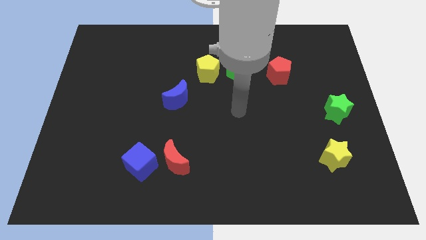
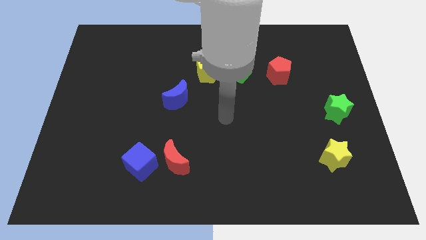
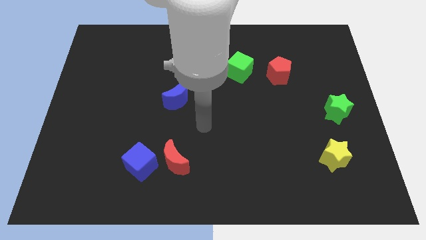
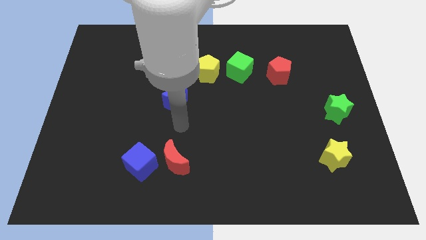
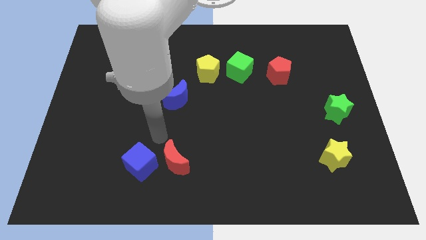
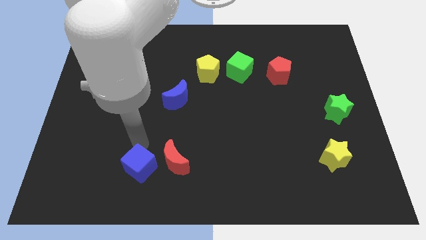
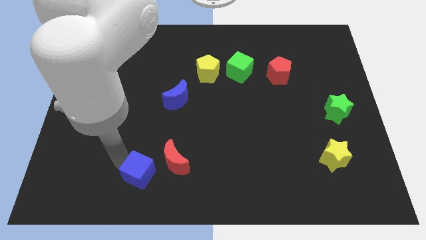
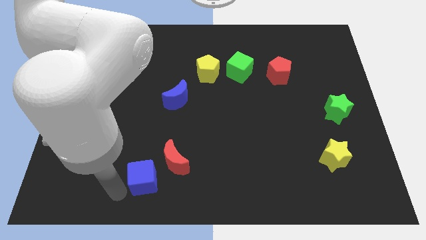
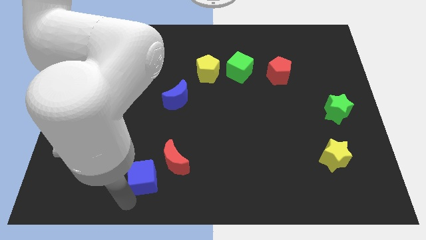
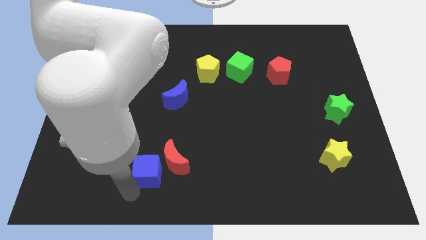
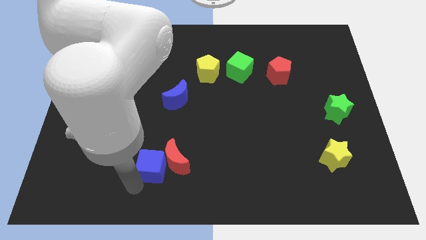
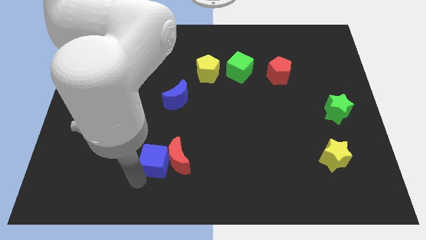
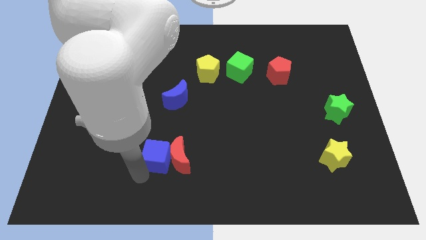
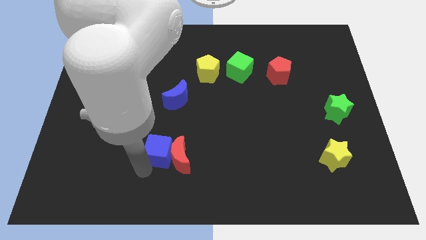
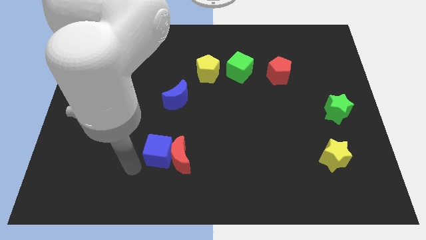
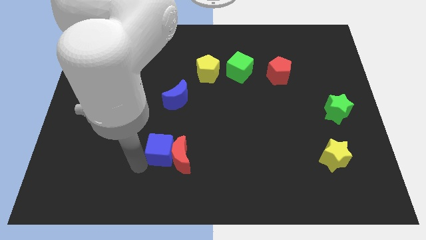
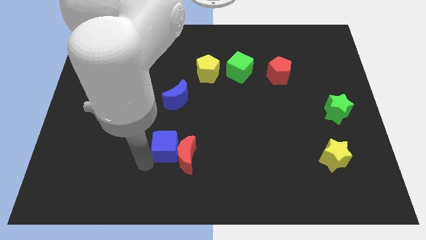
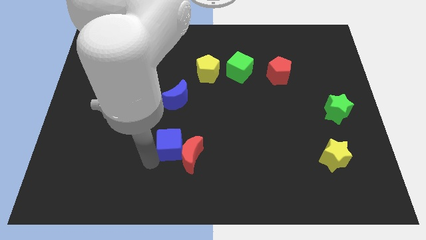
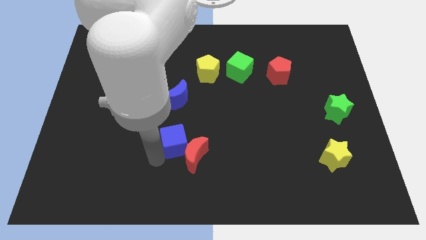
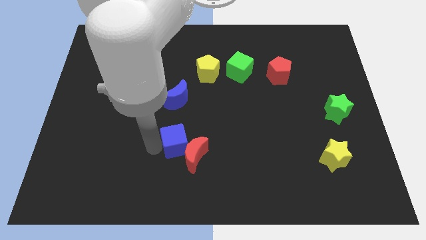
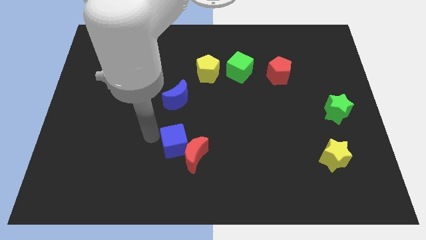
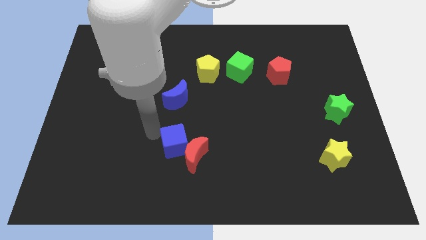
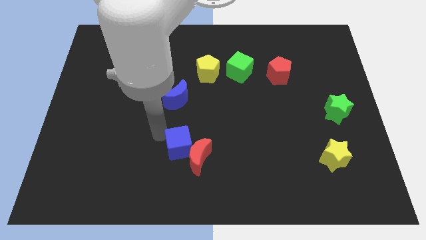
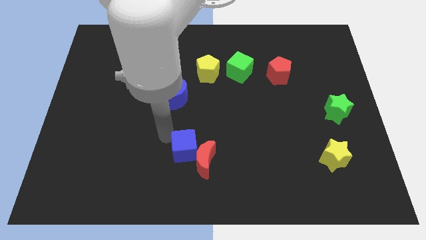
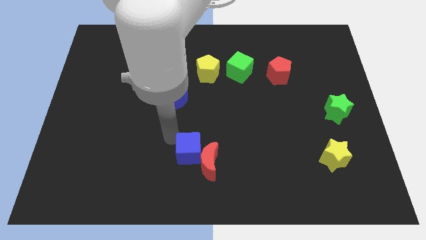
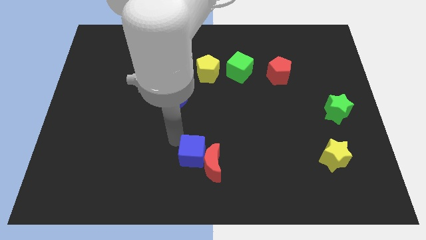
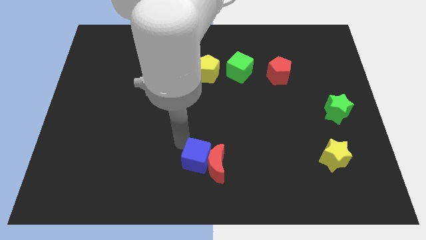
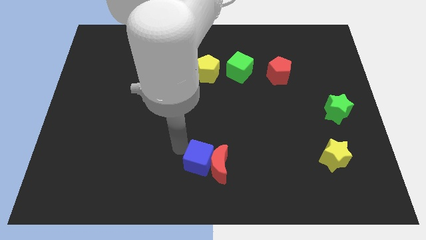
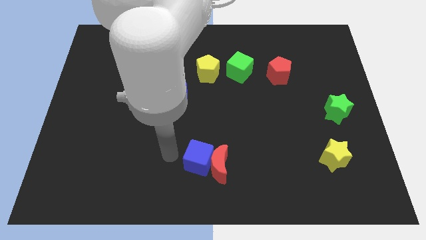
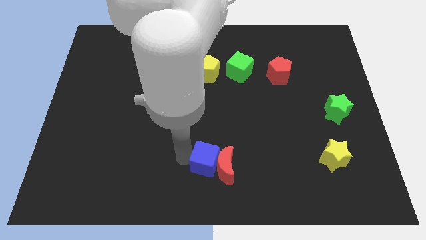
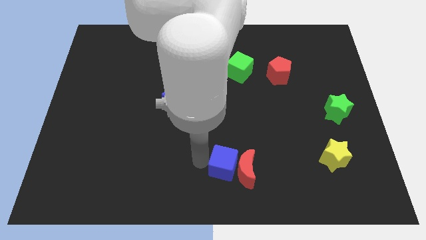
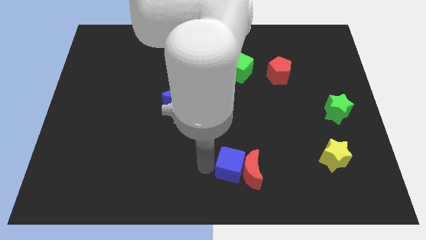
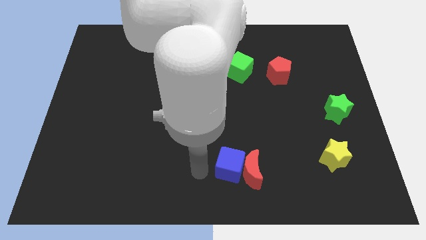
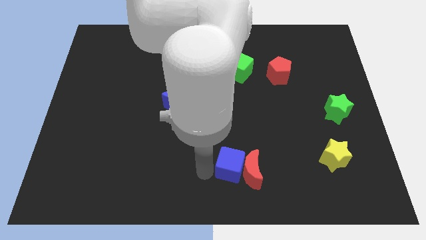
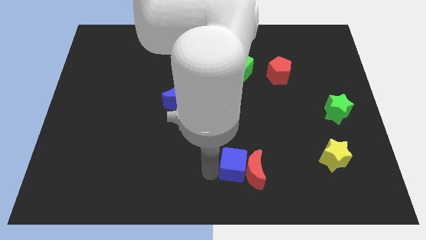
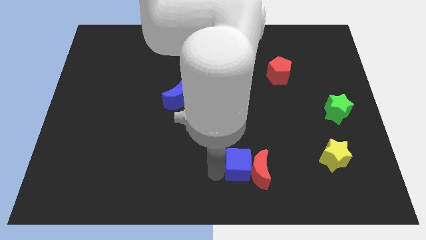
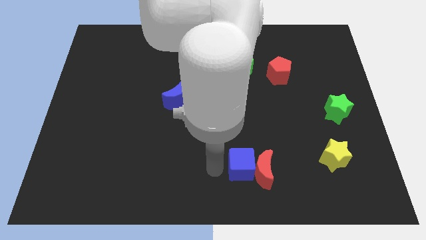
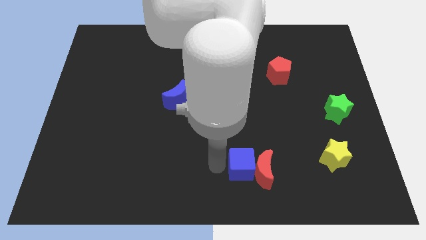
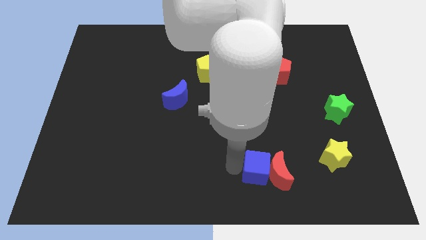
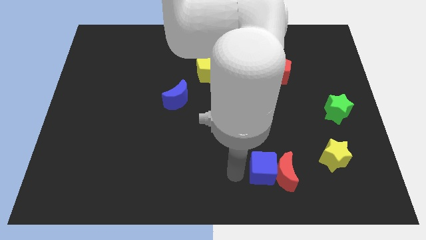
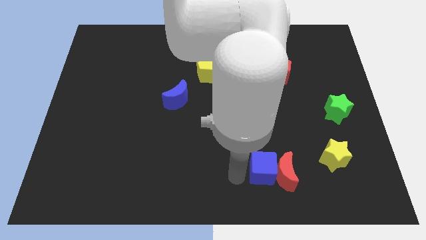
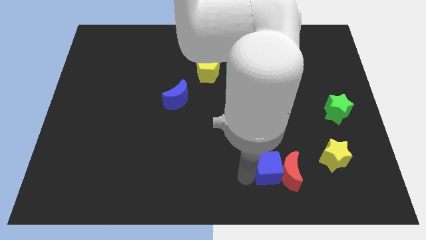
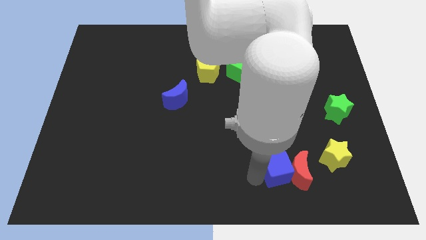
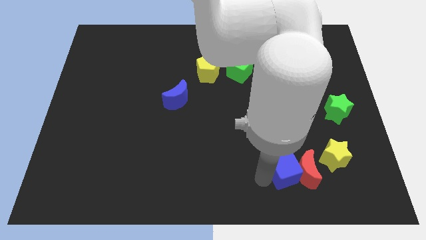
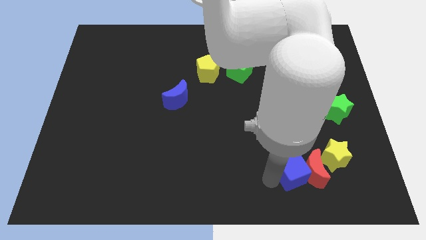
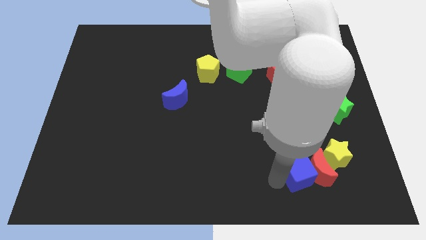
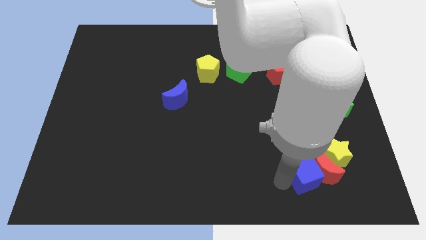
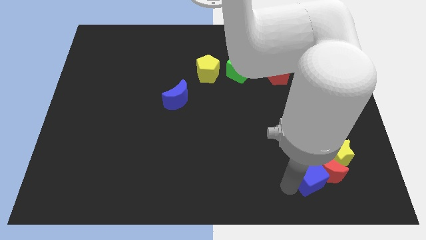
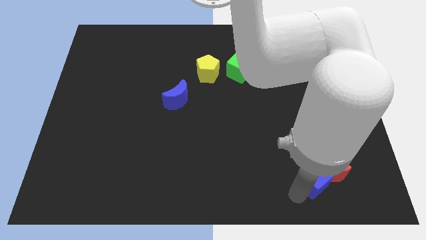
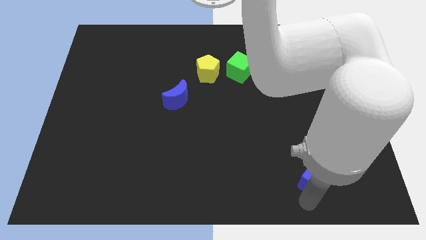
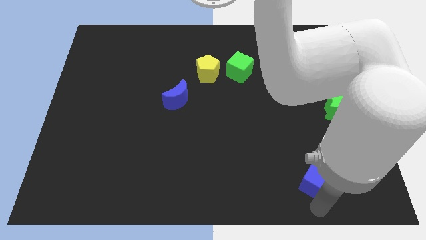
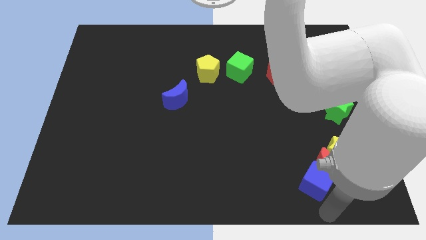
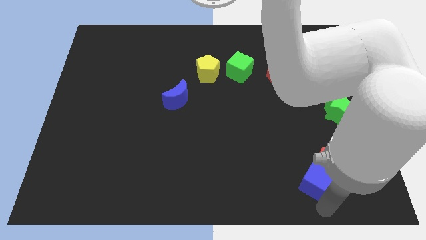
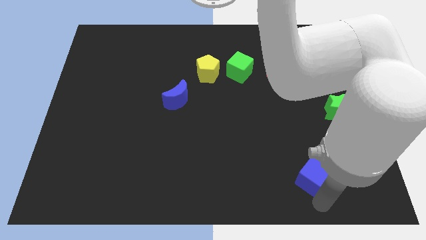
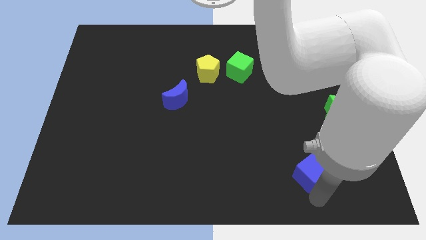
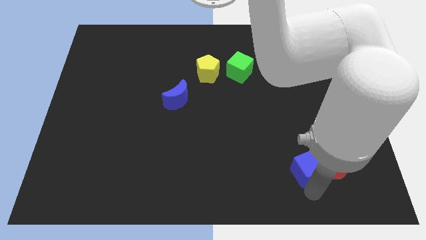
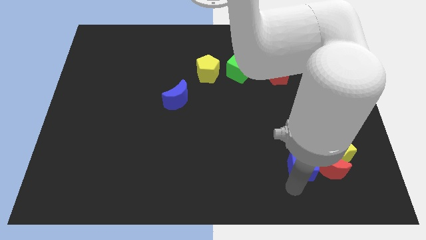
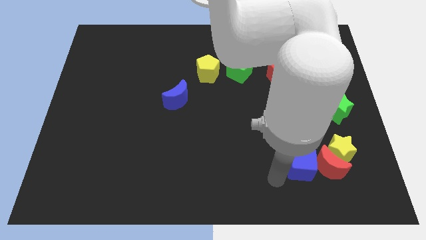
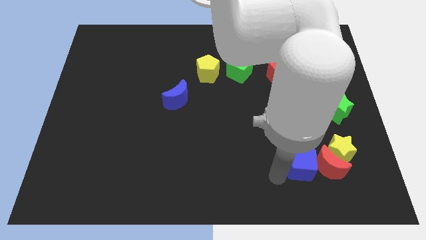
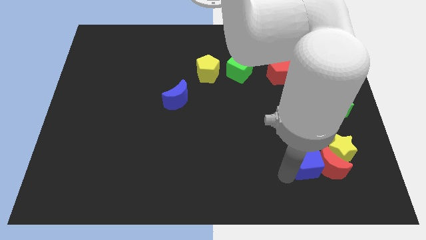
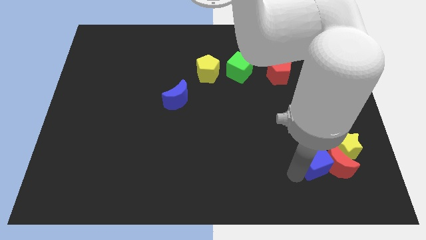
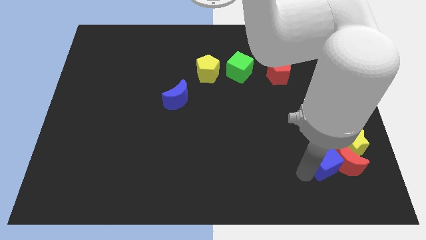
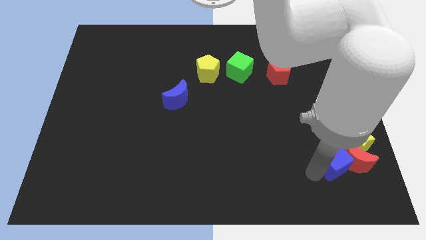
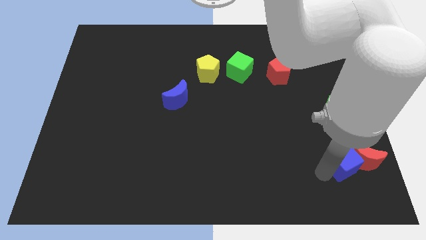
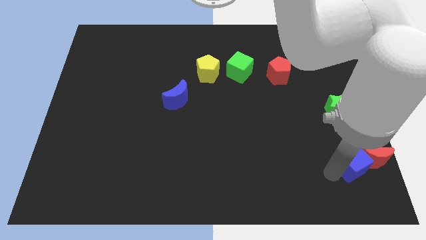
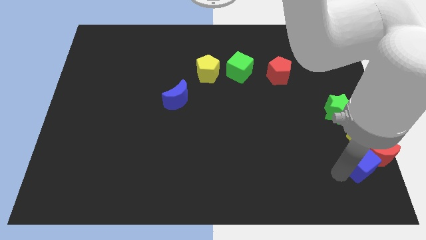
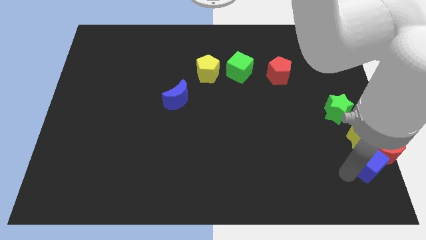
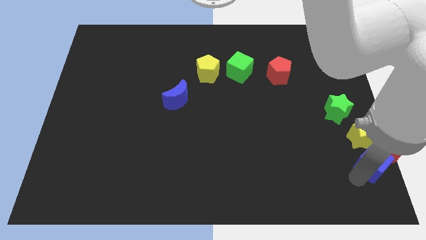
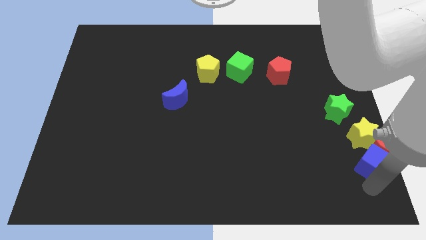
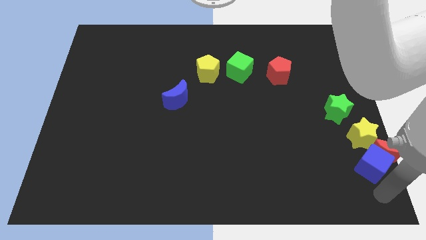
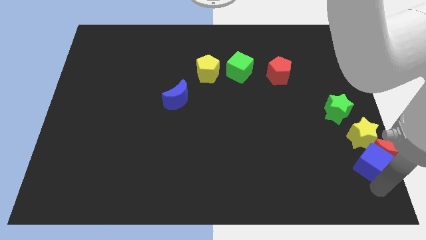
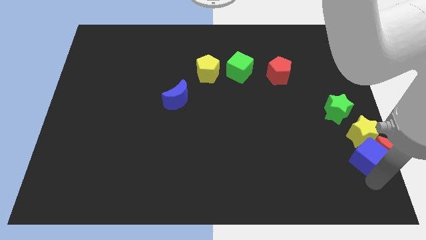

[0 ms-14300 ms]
slide the blue cube towards the yellow star
